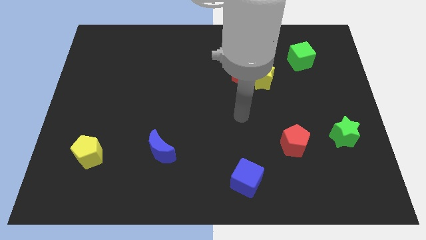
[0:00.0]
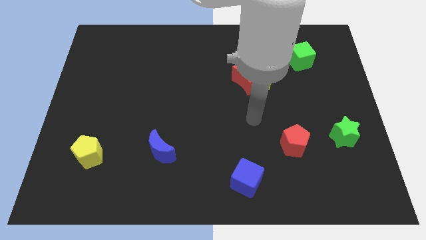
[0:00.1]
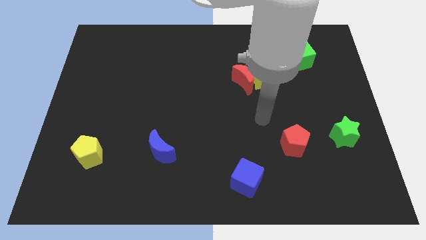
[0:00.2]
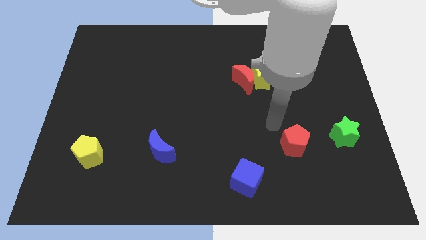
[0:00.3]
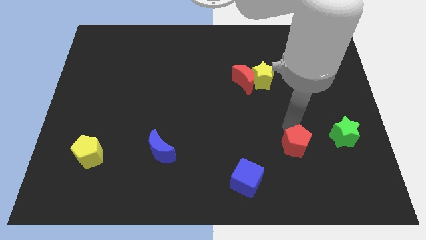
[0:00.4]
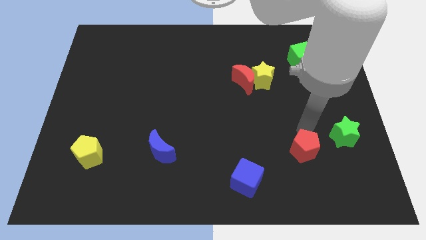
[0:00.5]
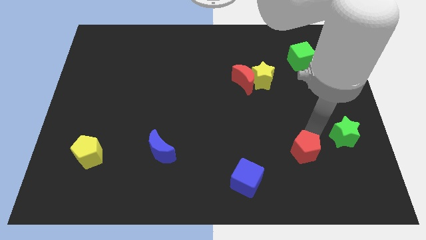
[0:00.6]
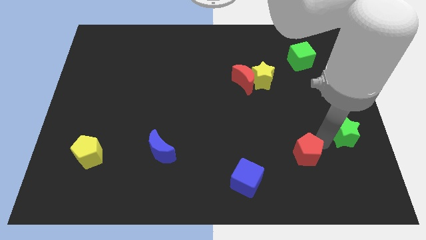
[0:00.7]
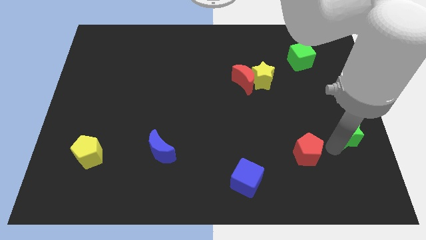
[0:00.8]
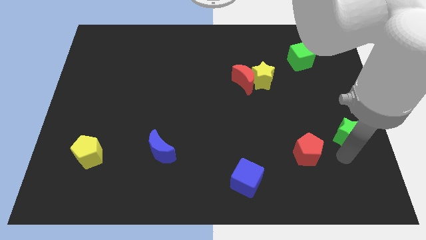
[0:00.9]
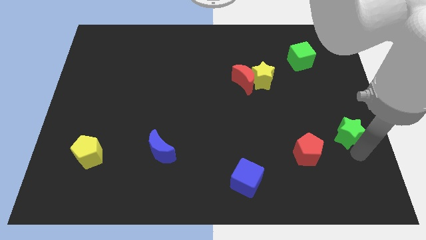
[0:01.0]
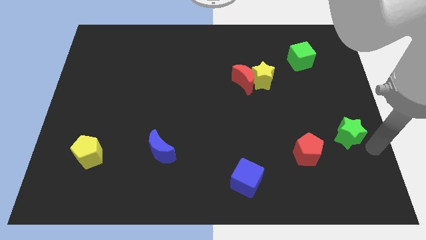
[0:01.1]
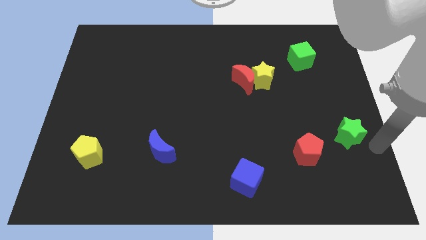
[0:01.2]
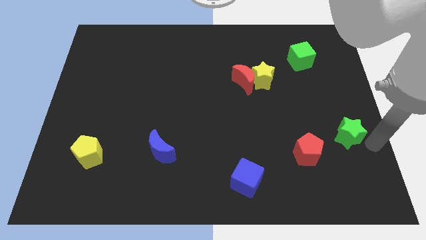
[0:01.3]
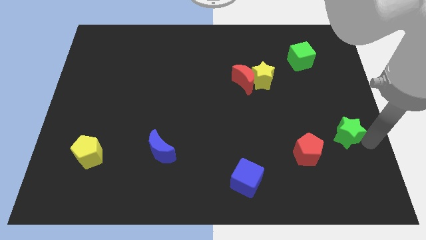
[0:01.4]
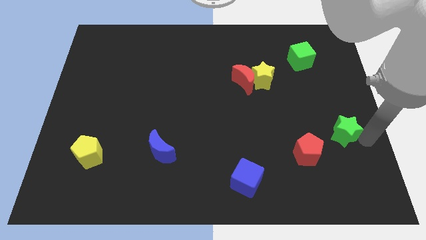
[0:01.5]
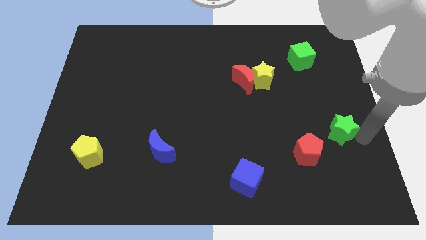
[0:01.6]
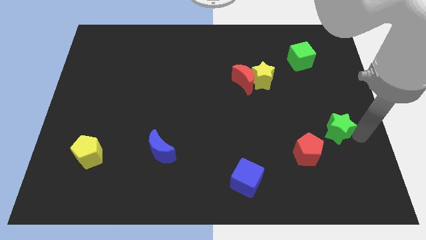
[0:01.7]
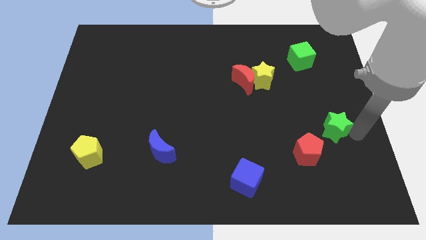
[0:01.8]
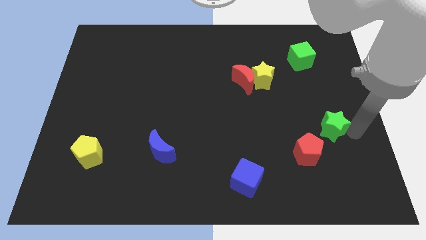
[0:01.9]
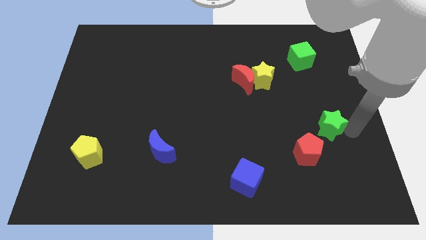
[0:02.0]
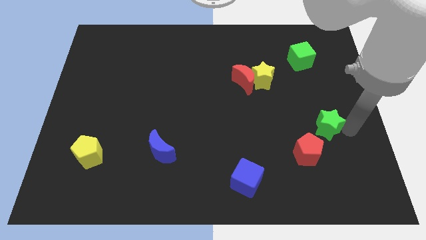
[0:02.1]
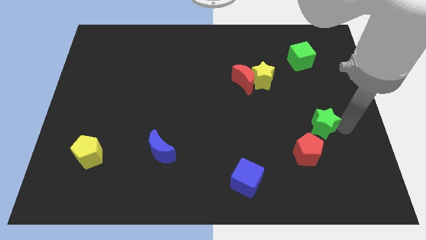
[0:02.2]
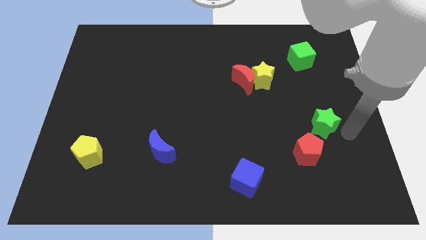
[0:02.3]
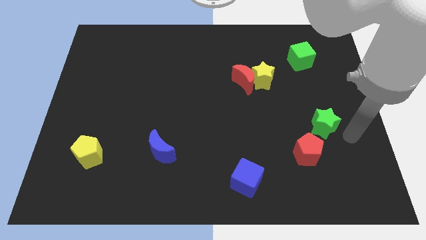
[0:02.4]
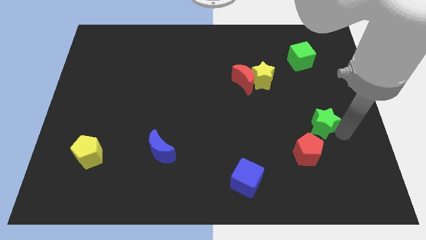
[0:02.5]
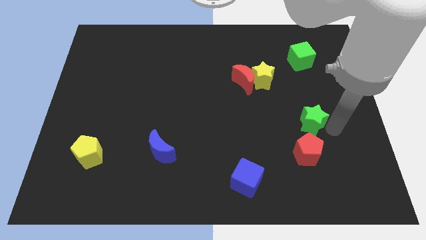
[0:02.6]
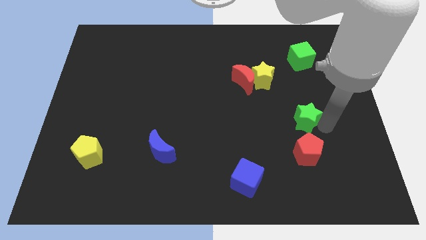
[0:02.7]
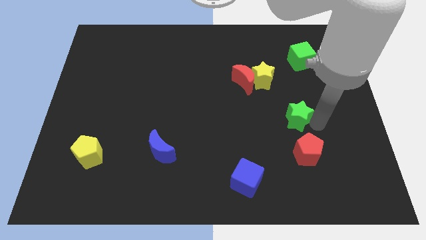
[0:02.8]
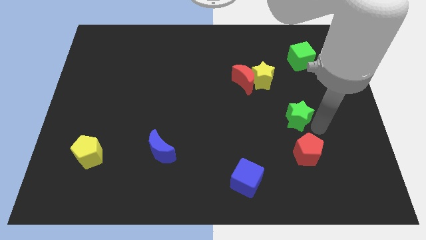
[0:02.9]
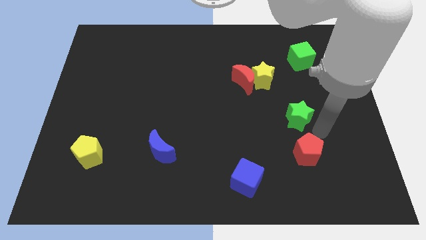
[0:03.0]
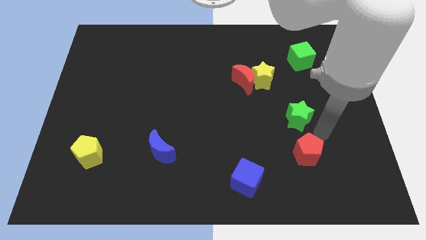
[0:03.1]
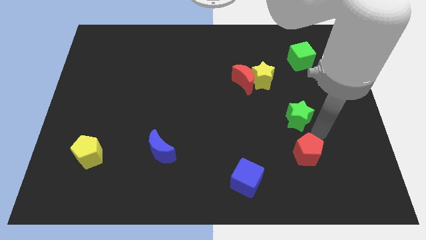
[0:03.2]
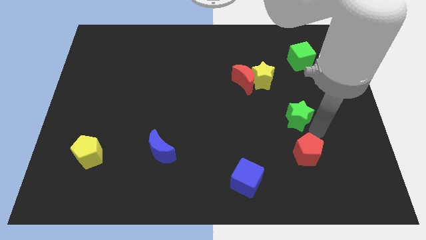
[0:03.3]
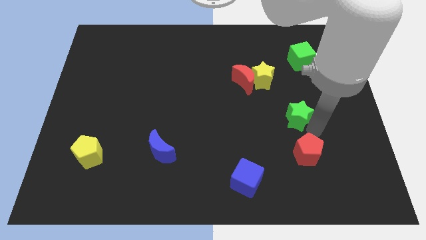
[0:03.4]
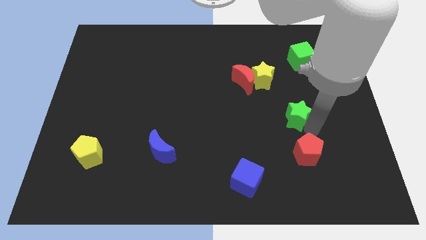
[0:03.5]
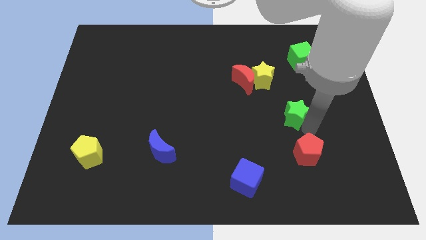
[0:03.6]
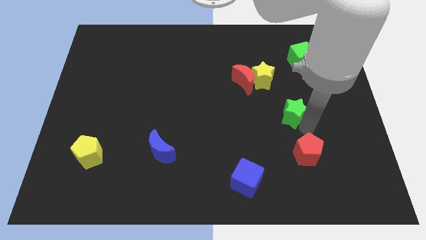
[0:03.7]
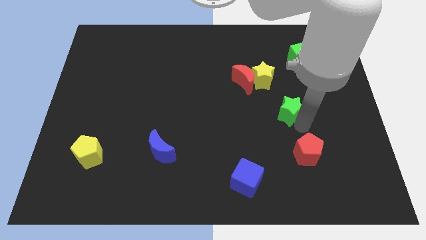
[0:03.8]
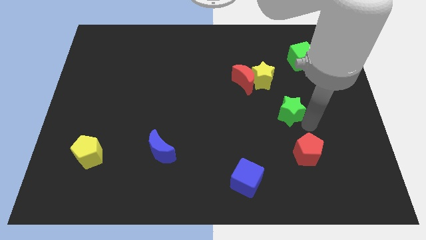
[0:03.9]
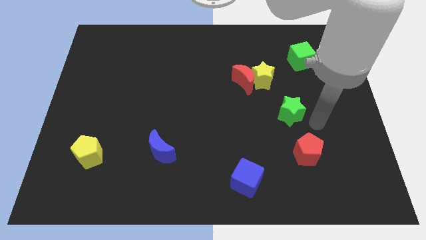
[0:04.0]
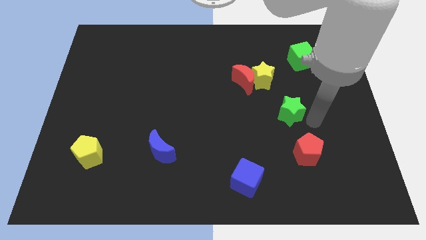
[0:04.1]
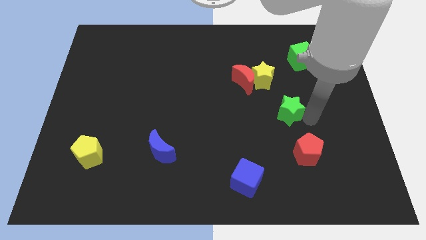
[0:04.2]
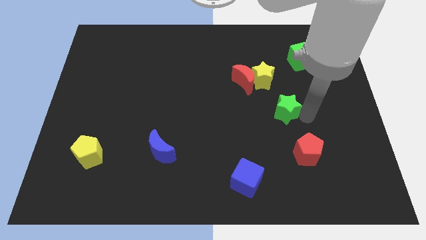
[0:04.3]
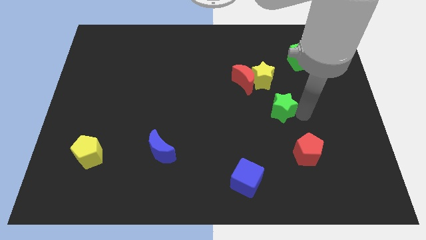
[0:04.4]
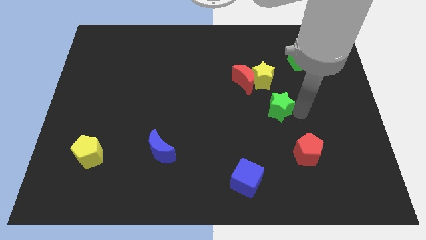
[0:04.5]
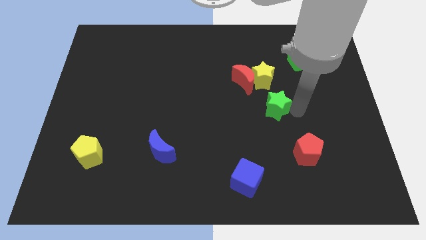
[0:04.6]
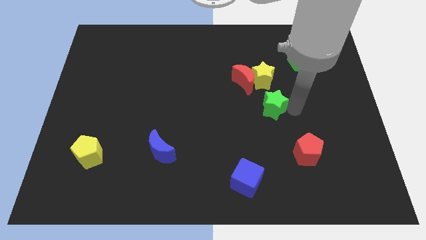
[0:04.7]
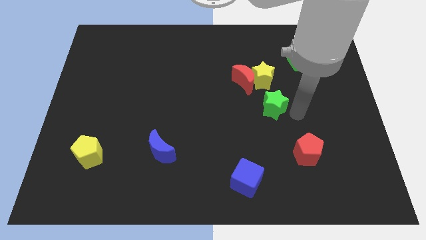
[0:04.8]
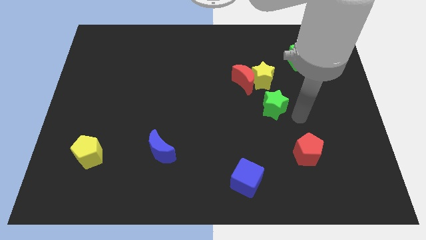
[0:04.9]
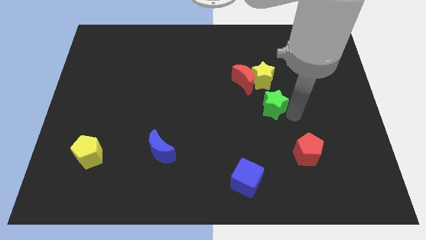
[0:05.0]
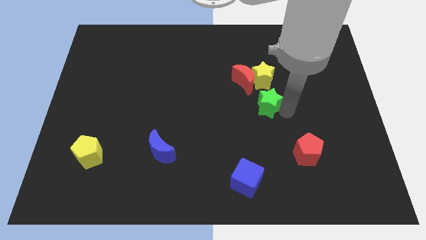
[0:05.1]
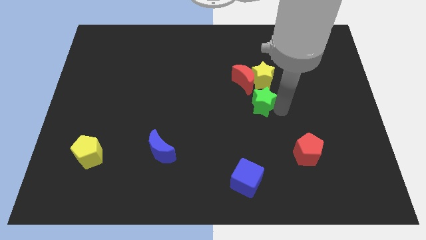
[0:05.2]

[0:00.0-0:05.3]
put the green star to the center of the board

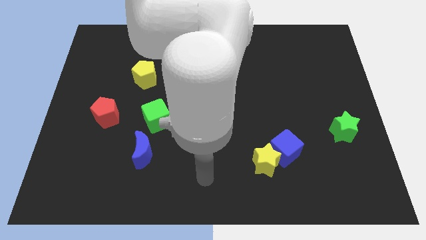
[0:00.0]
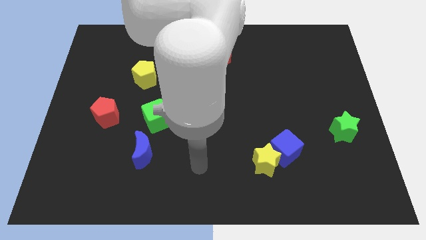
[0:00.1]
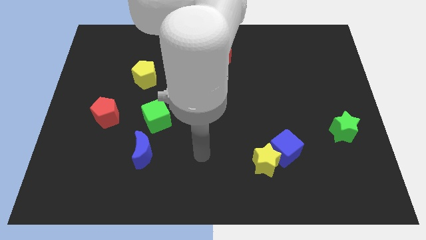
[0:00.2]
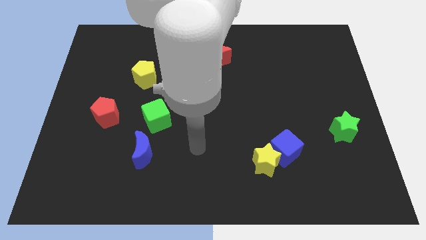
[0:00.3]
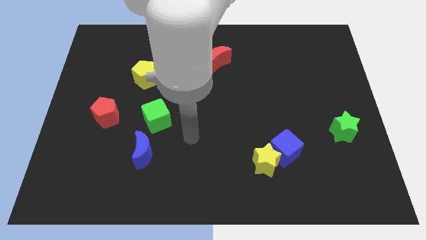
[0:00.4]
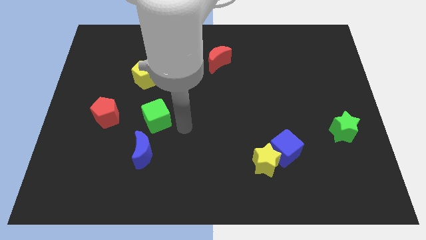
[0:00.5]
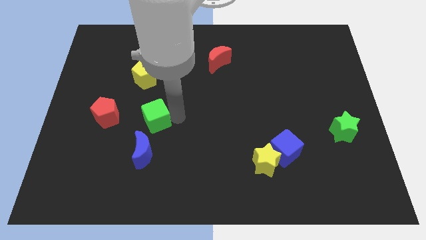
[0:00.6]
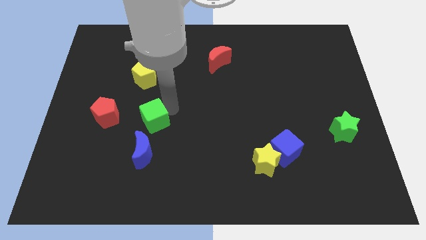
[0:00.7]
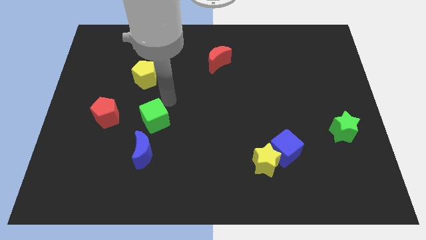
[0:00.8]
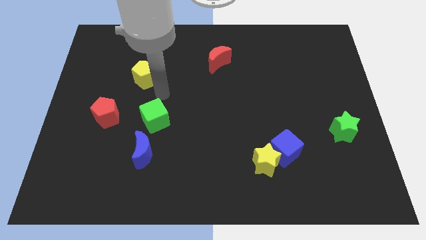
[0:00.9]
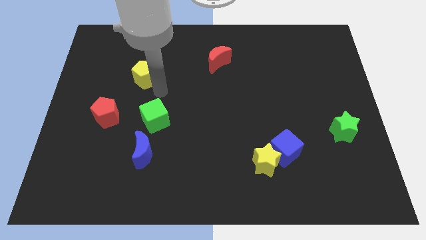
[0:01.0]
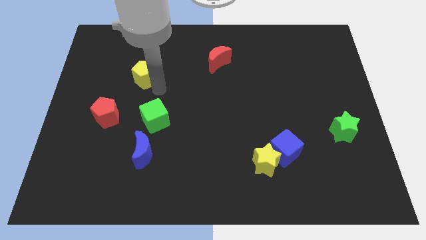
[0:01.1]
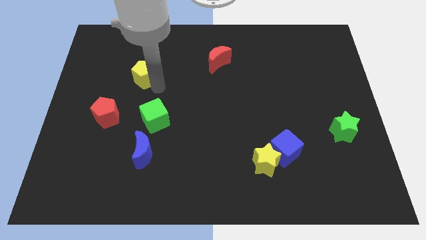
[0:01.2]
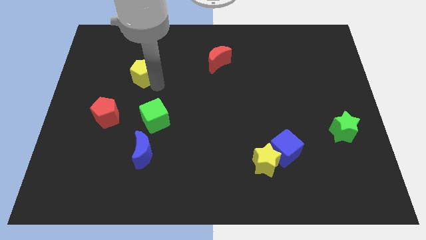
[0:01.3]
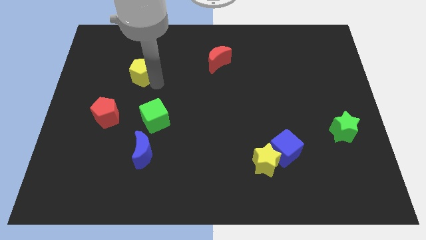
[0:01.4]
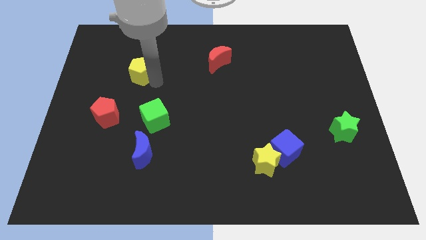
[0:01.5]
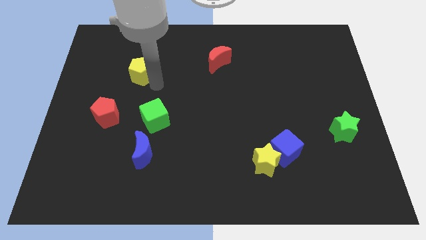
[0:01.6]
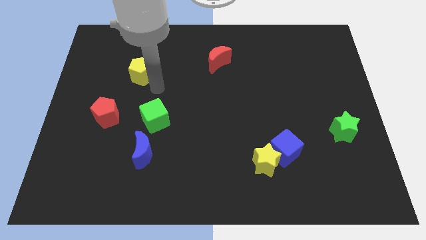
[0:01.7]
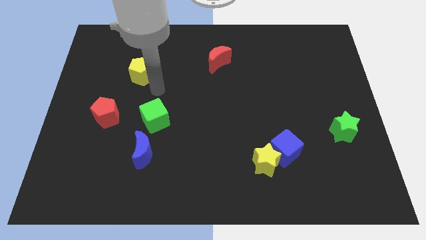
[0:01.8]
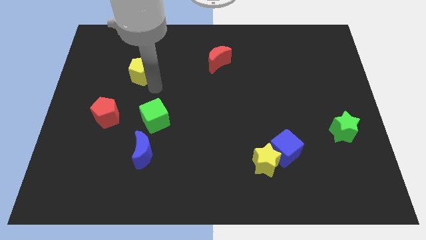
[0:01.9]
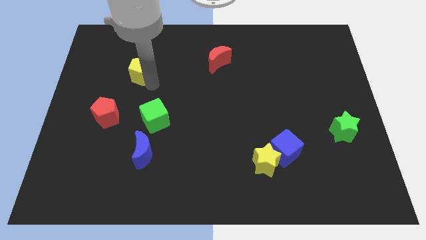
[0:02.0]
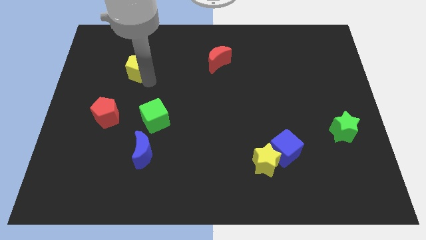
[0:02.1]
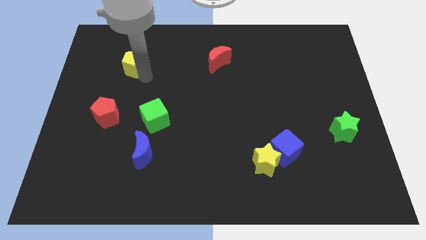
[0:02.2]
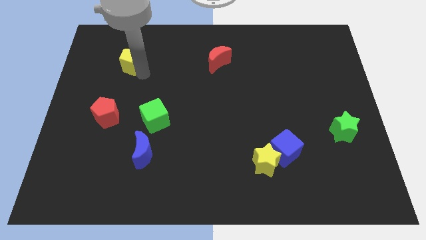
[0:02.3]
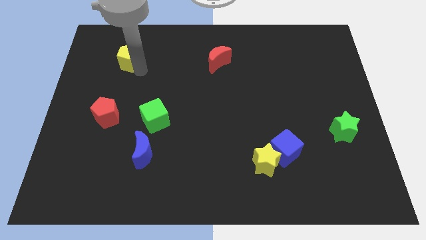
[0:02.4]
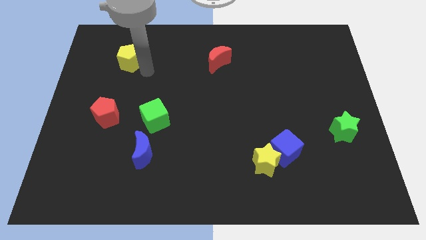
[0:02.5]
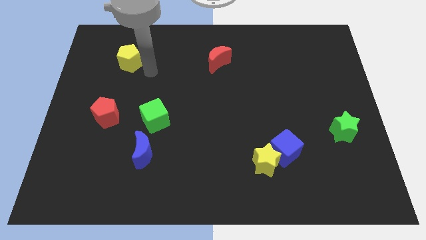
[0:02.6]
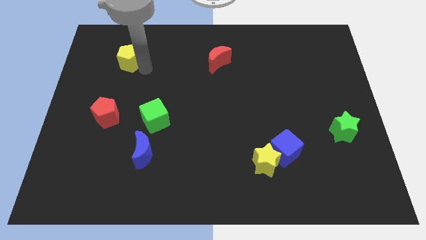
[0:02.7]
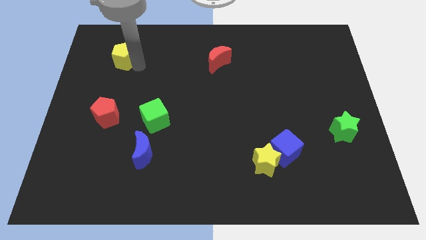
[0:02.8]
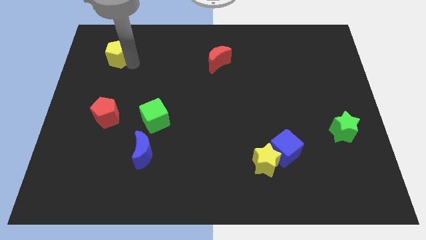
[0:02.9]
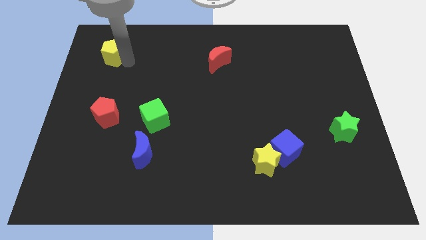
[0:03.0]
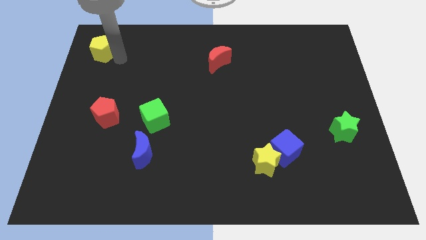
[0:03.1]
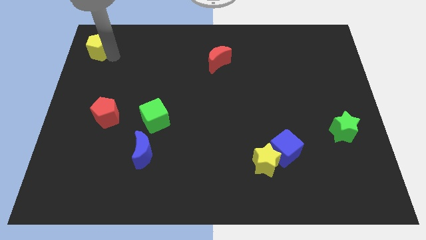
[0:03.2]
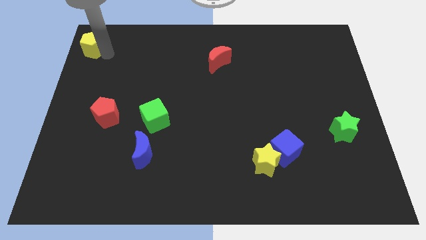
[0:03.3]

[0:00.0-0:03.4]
slide the yellow pentagon to the top left
